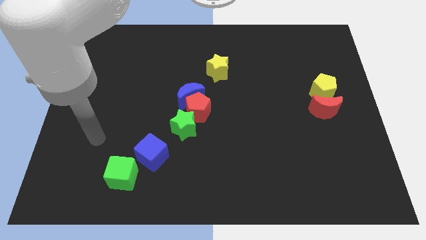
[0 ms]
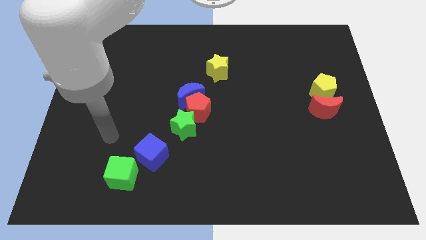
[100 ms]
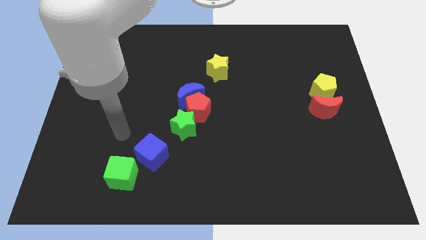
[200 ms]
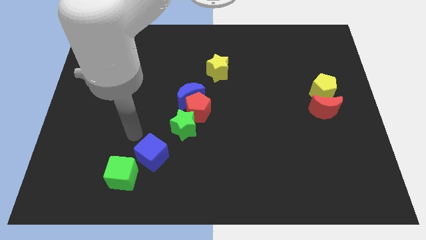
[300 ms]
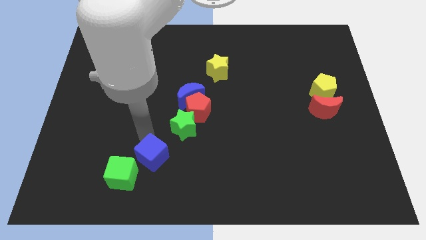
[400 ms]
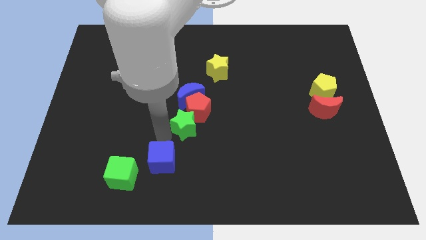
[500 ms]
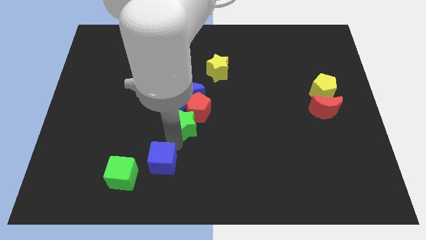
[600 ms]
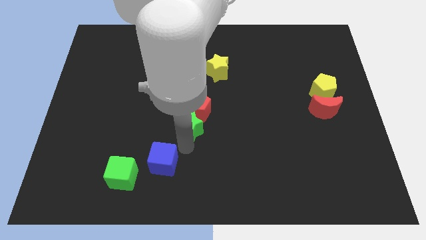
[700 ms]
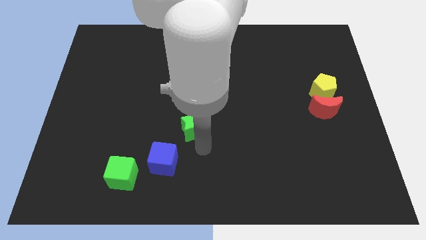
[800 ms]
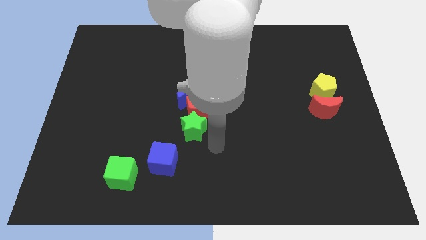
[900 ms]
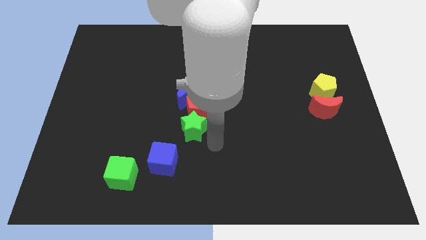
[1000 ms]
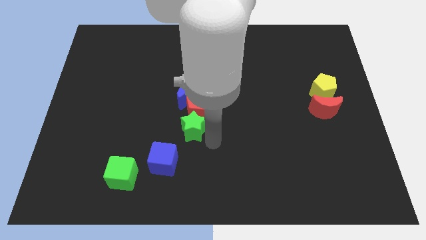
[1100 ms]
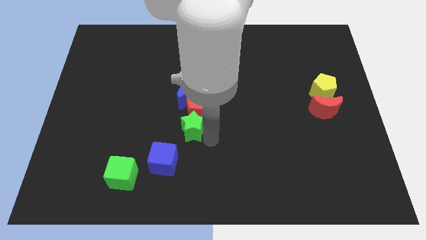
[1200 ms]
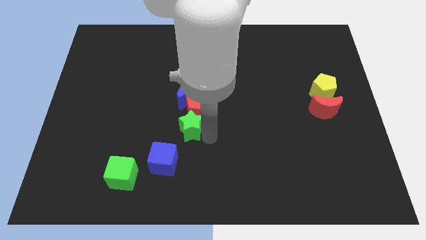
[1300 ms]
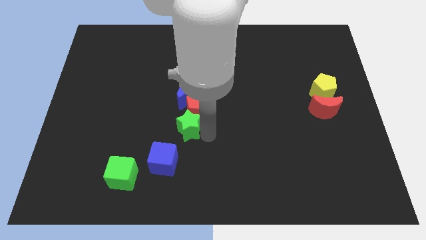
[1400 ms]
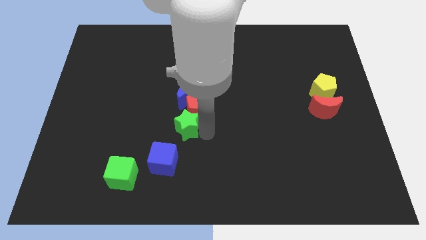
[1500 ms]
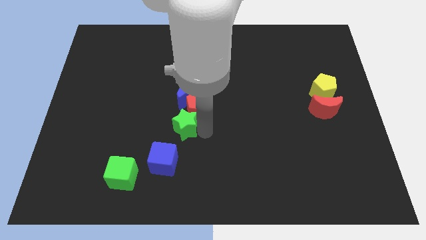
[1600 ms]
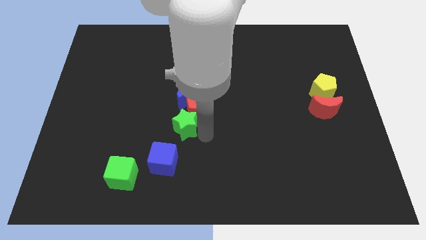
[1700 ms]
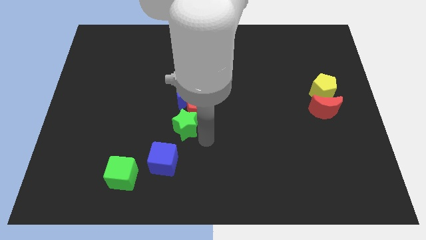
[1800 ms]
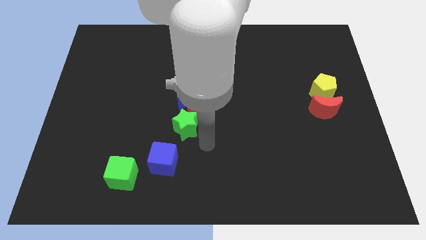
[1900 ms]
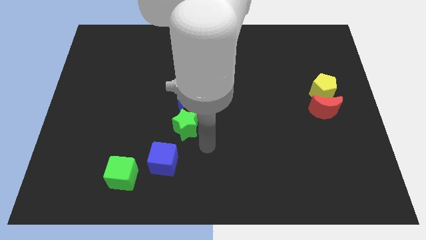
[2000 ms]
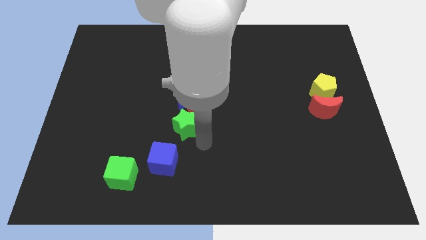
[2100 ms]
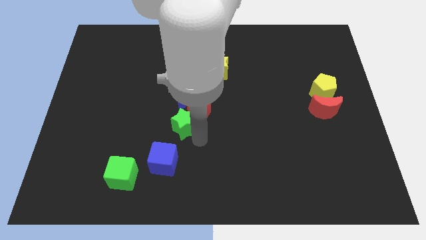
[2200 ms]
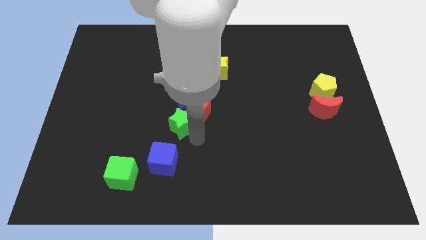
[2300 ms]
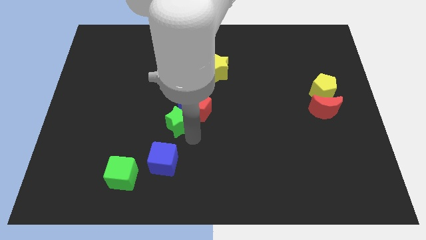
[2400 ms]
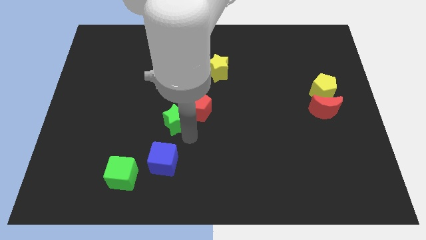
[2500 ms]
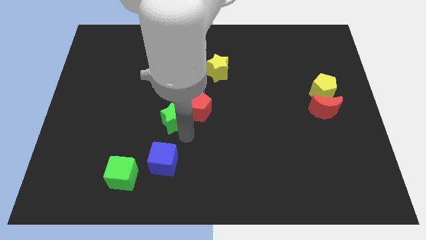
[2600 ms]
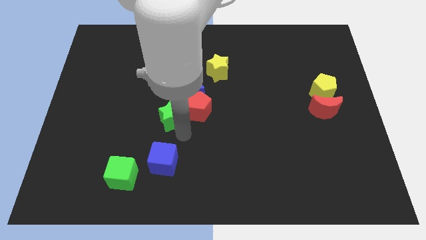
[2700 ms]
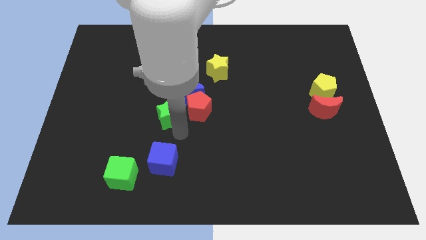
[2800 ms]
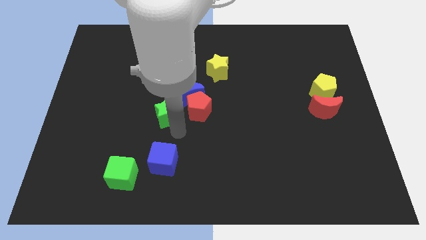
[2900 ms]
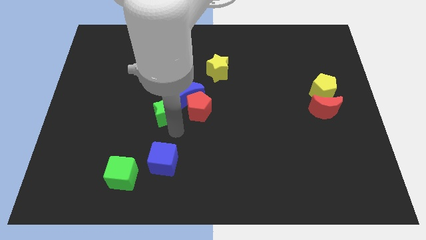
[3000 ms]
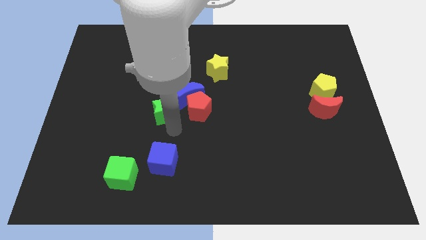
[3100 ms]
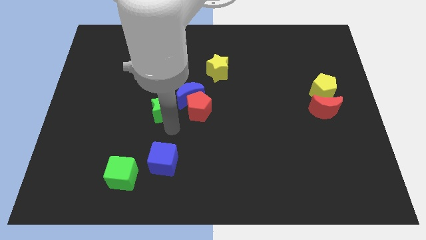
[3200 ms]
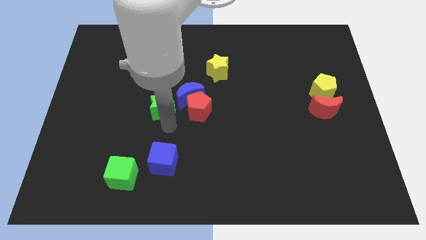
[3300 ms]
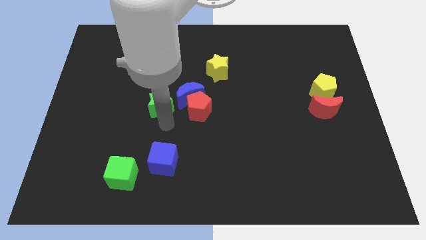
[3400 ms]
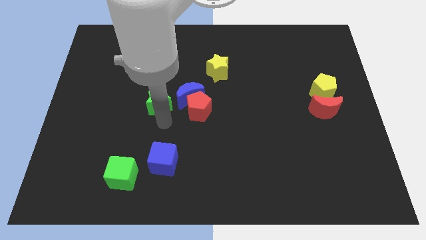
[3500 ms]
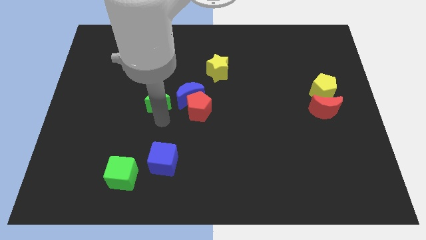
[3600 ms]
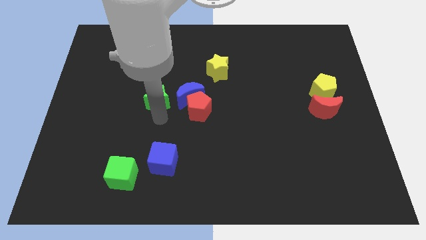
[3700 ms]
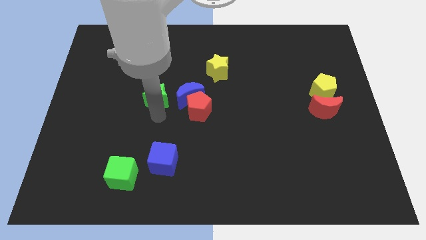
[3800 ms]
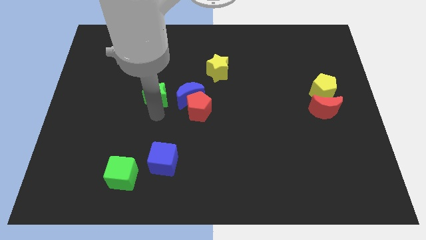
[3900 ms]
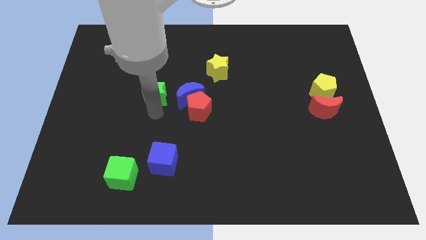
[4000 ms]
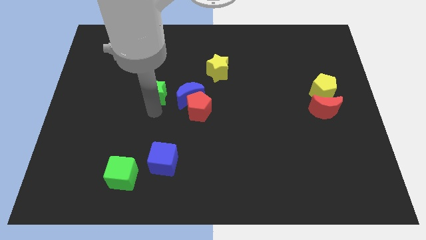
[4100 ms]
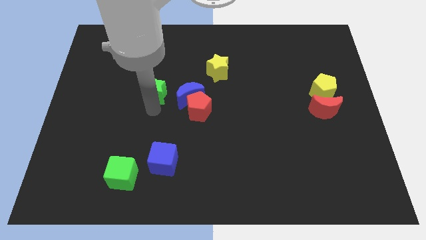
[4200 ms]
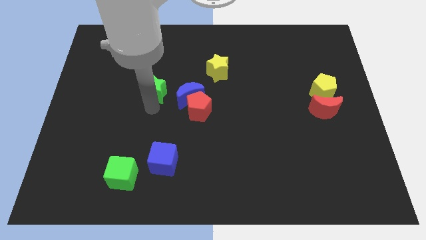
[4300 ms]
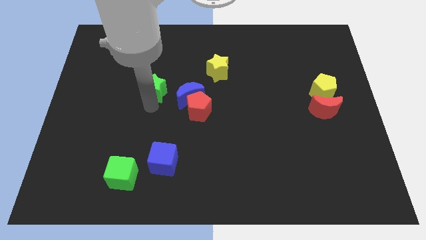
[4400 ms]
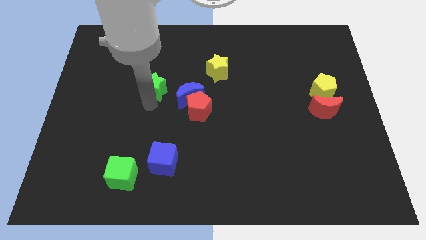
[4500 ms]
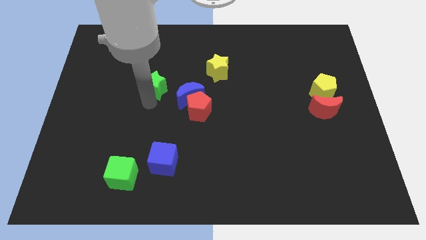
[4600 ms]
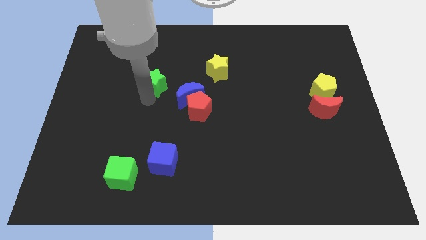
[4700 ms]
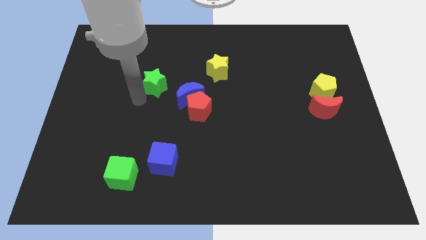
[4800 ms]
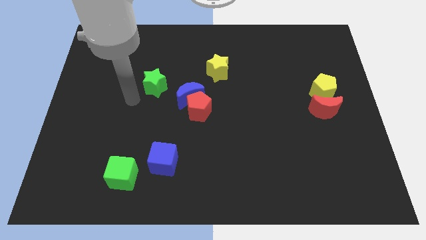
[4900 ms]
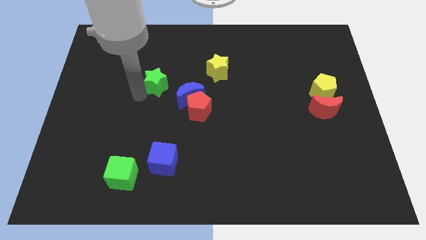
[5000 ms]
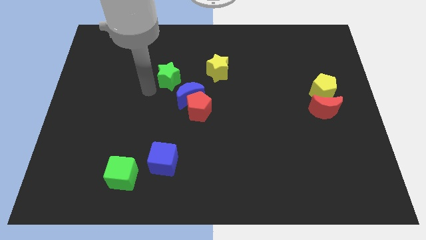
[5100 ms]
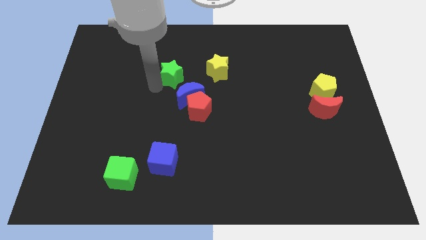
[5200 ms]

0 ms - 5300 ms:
push the green star to the top side of the blue moon

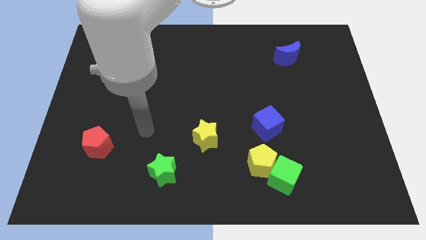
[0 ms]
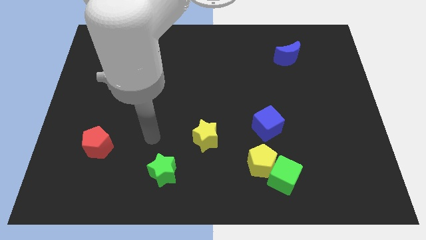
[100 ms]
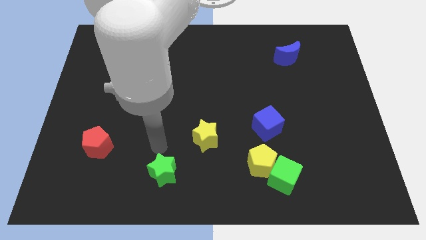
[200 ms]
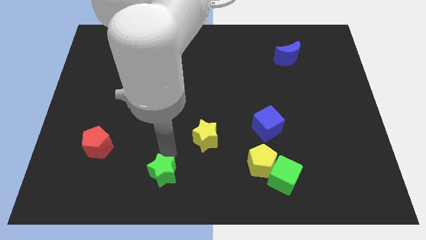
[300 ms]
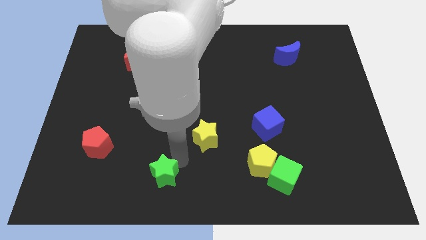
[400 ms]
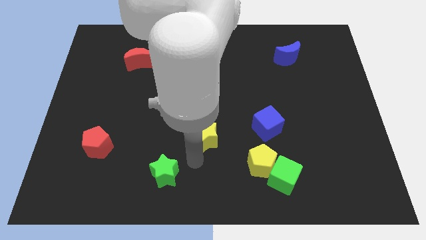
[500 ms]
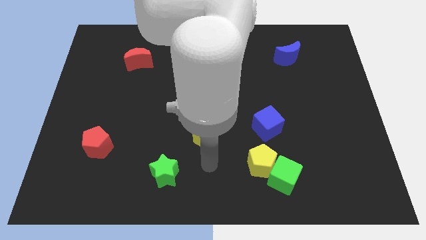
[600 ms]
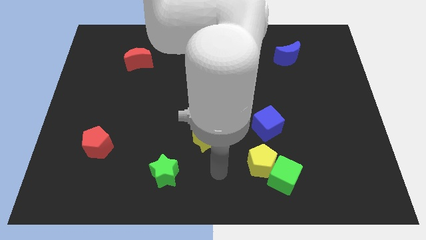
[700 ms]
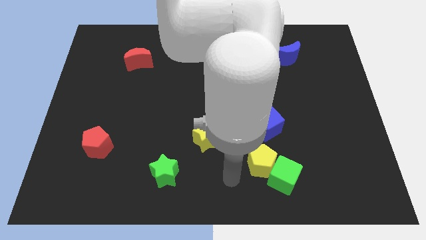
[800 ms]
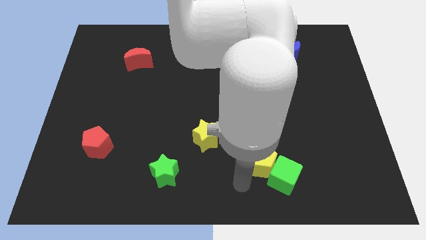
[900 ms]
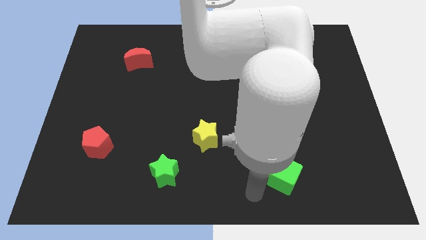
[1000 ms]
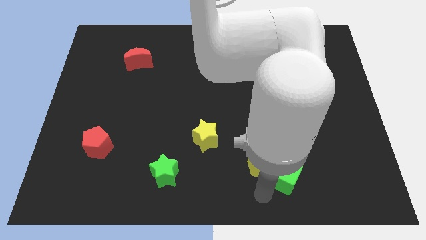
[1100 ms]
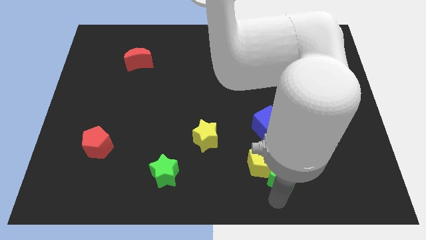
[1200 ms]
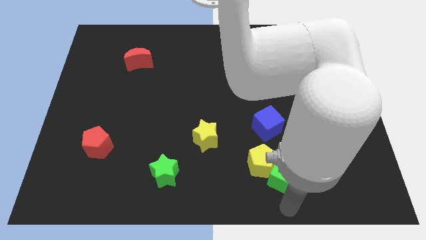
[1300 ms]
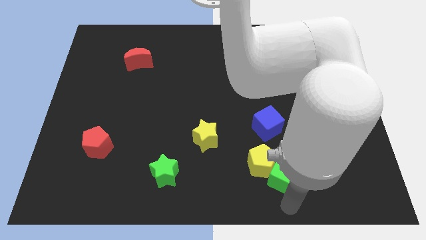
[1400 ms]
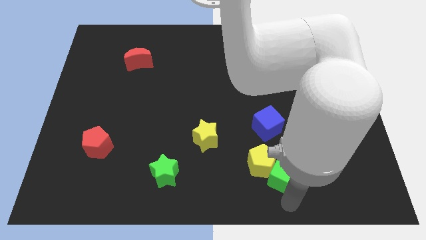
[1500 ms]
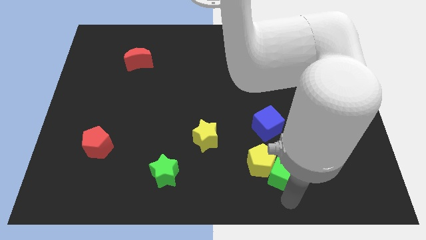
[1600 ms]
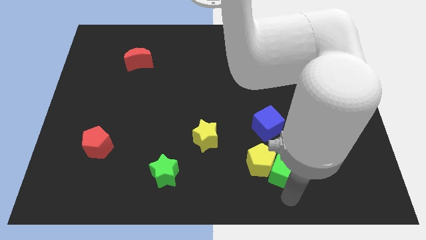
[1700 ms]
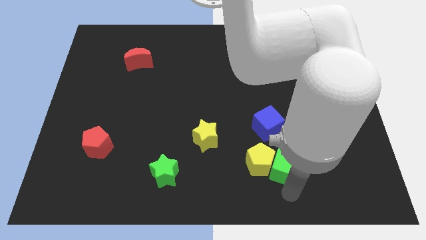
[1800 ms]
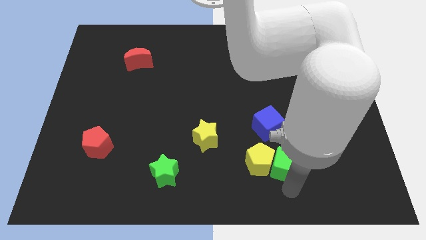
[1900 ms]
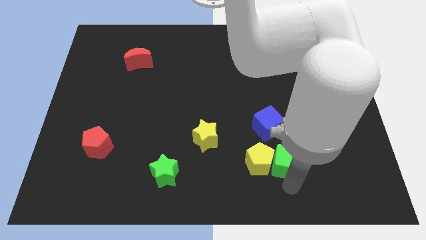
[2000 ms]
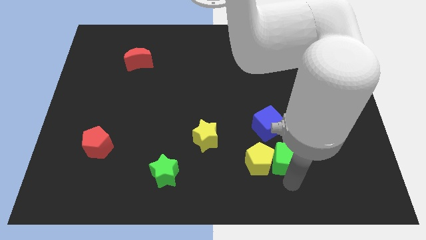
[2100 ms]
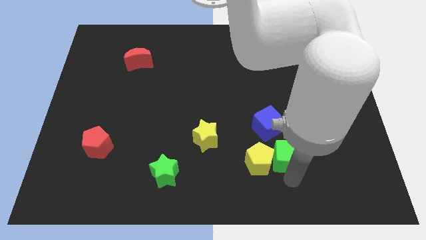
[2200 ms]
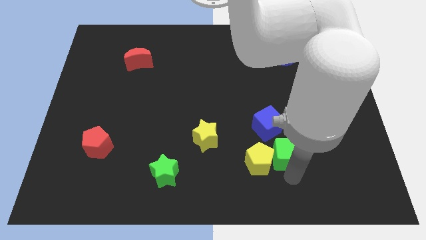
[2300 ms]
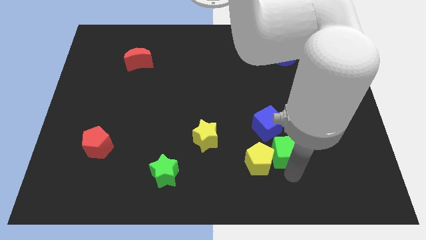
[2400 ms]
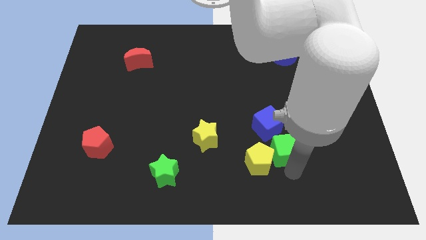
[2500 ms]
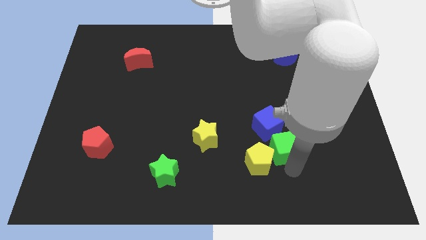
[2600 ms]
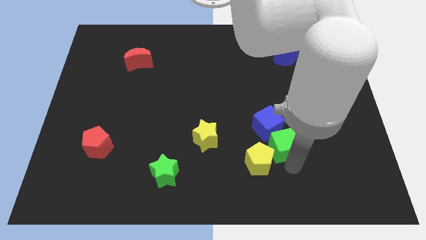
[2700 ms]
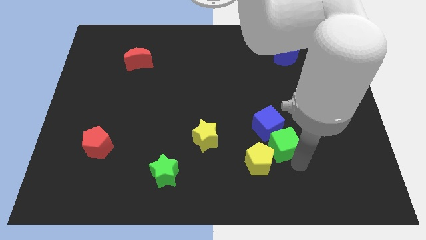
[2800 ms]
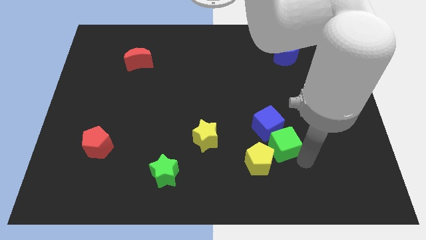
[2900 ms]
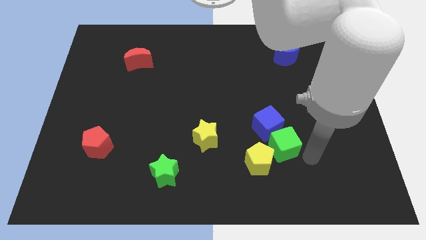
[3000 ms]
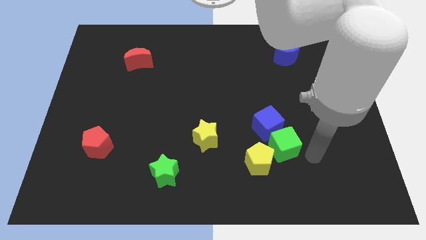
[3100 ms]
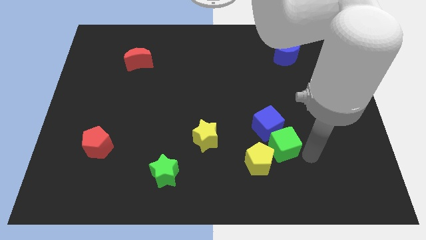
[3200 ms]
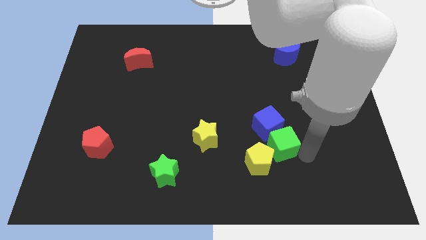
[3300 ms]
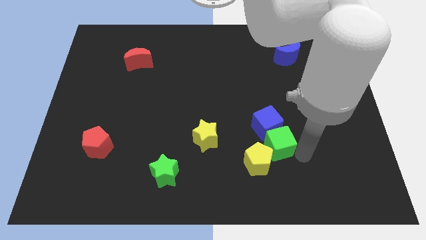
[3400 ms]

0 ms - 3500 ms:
push the green cube to the right of the yellow star

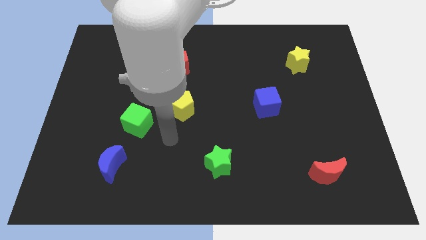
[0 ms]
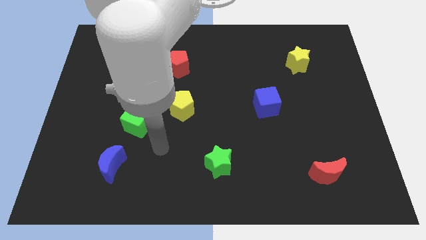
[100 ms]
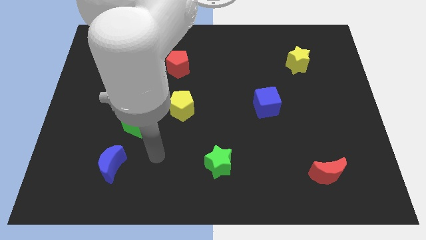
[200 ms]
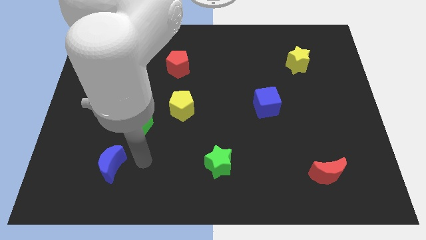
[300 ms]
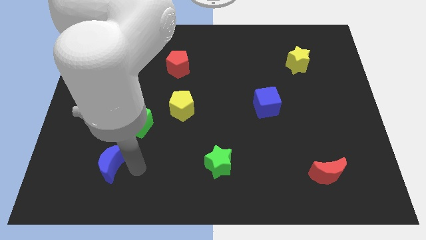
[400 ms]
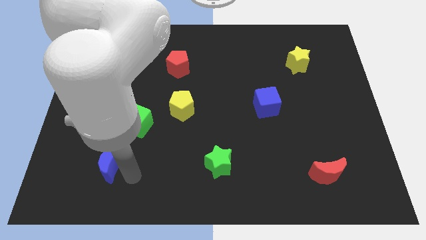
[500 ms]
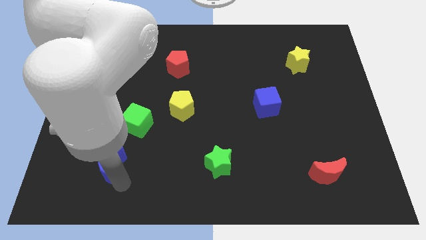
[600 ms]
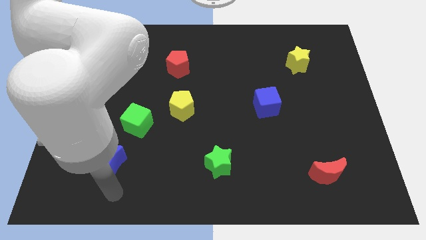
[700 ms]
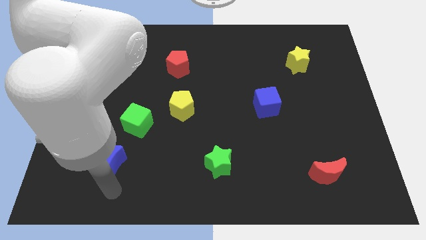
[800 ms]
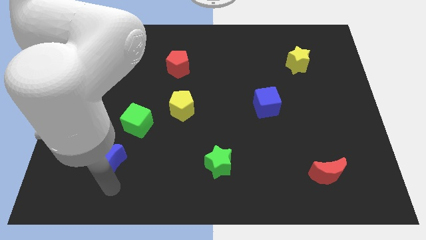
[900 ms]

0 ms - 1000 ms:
put the blue moon diagonally down and to the left of the green cube
